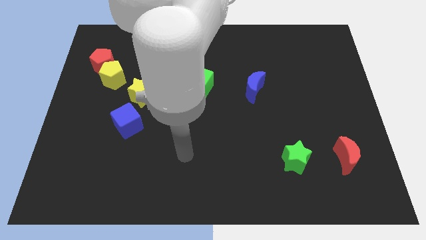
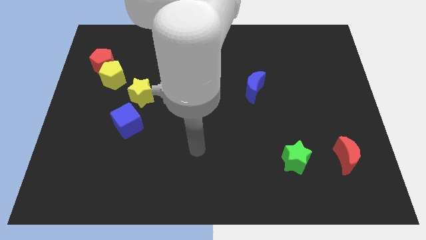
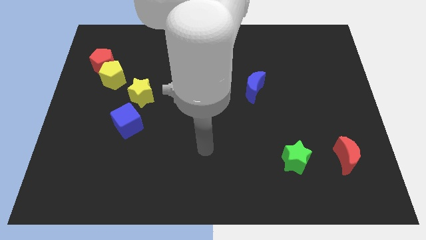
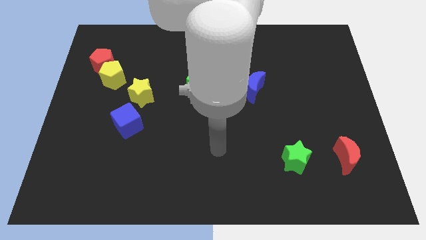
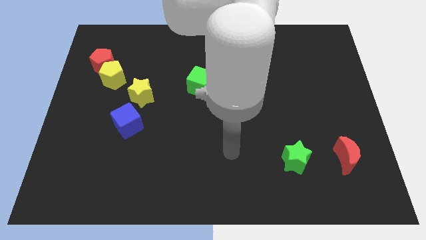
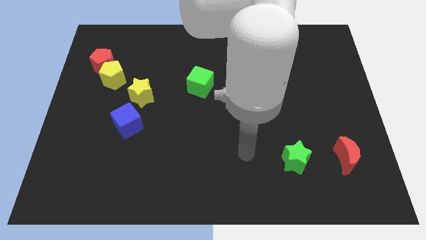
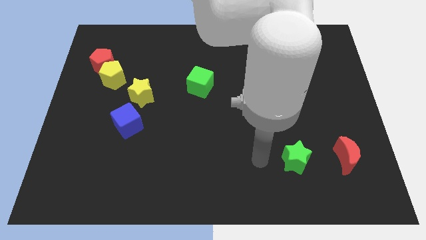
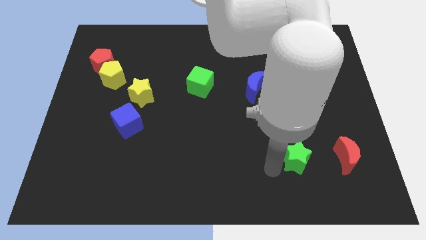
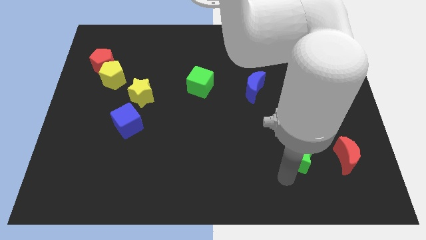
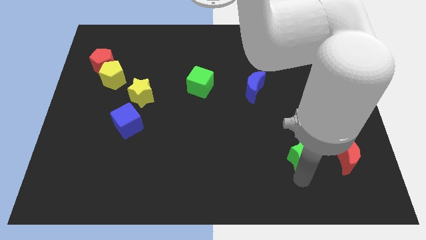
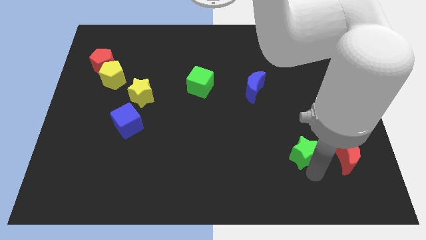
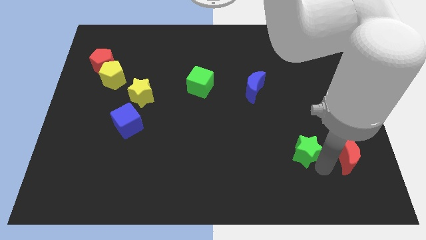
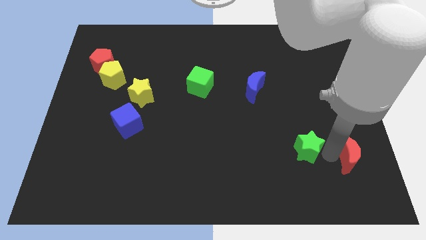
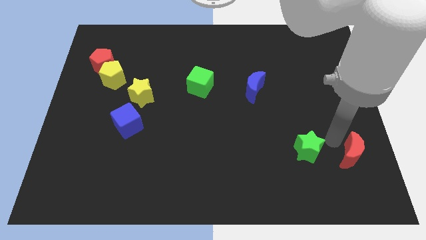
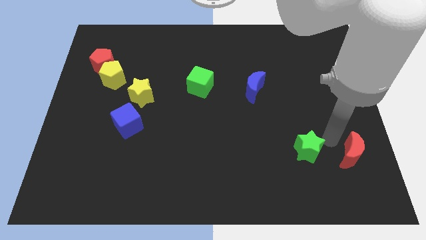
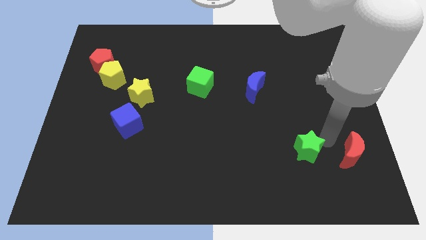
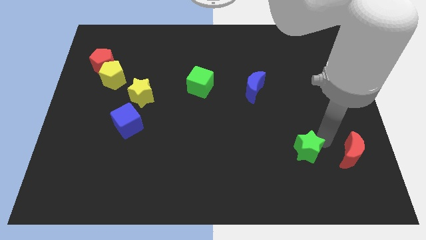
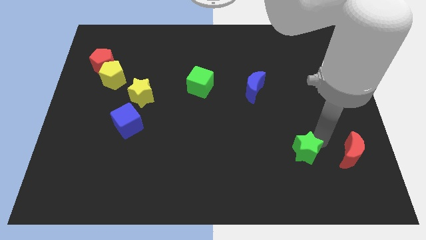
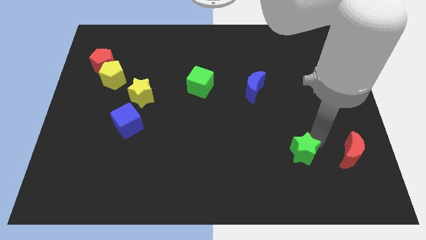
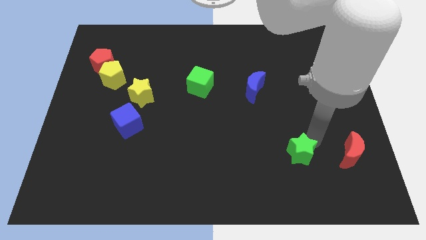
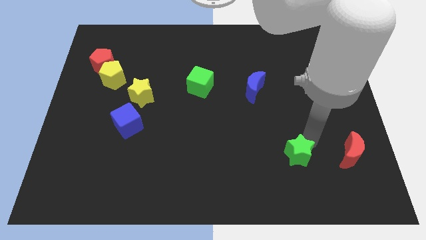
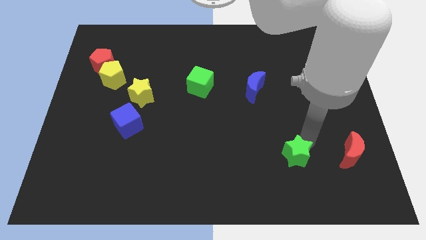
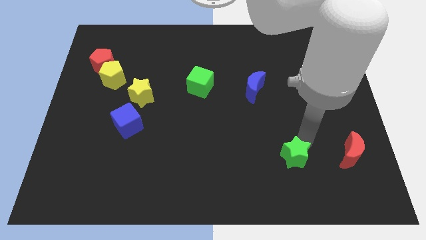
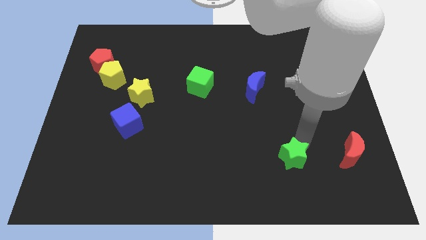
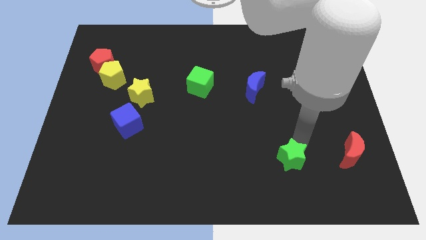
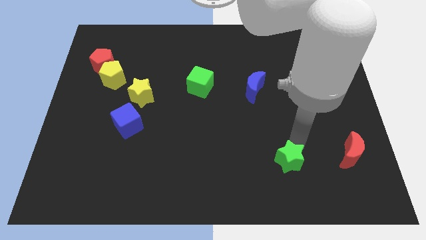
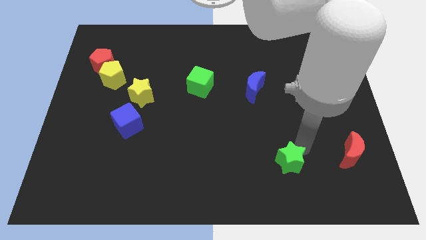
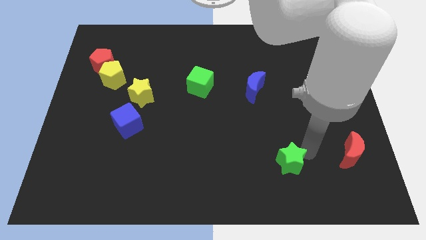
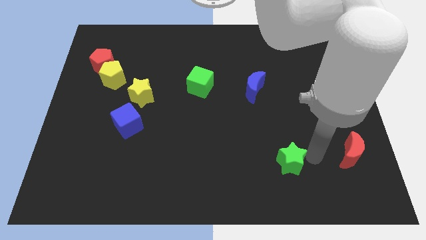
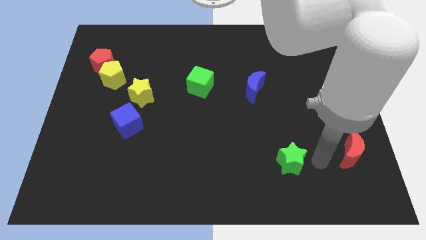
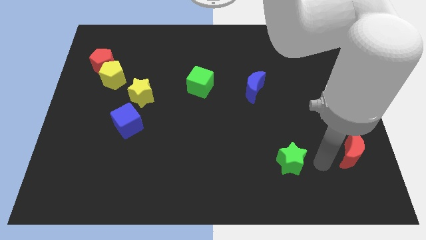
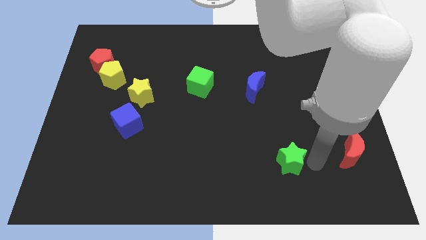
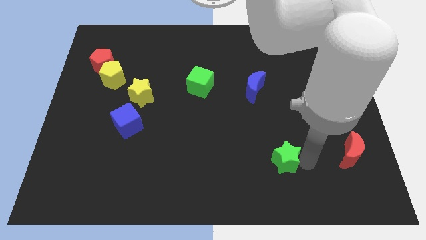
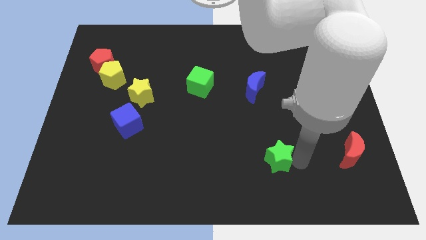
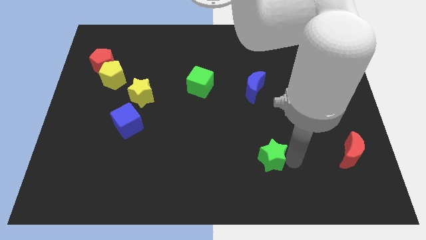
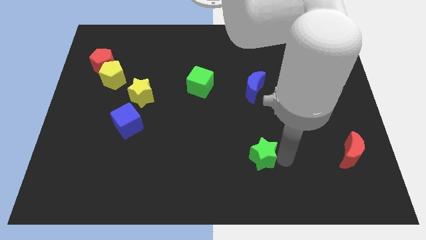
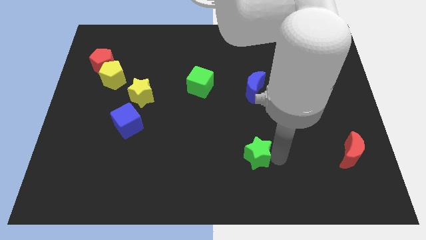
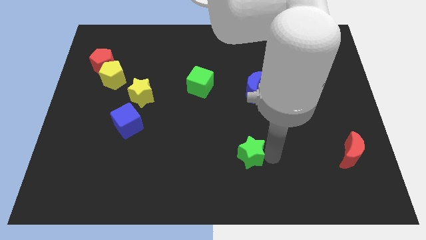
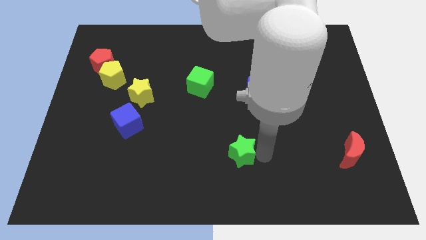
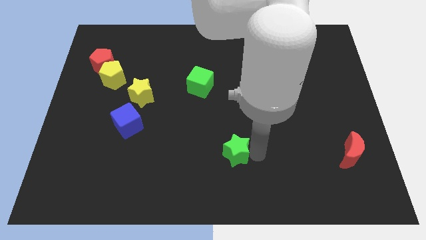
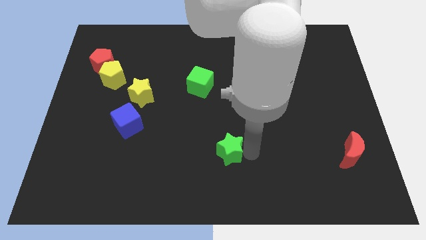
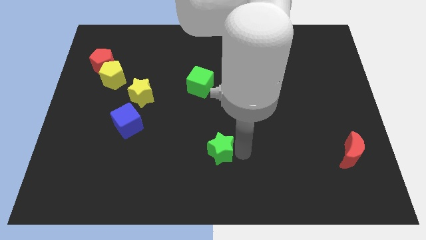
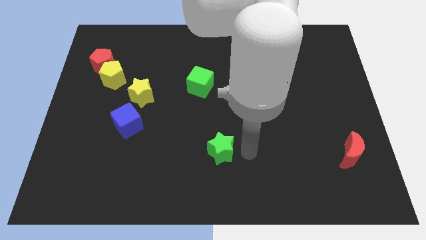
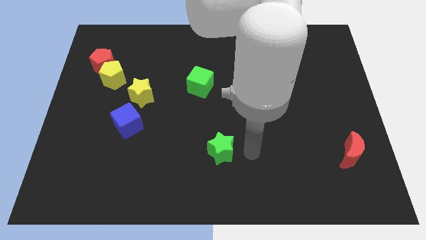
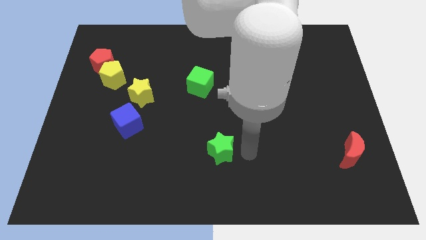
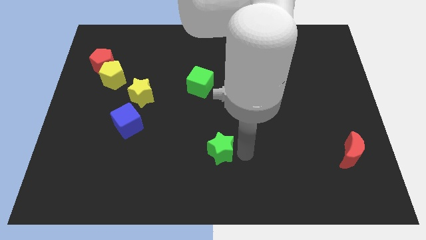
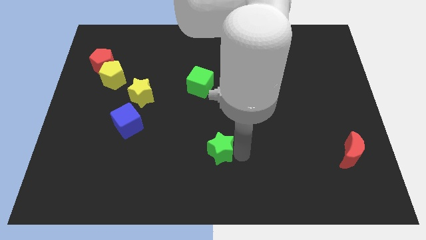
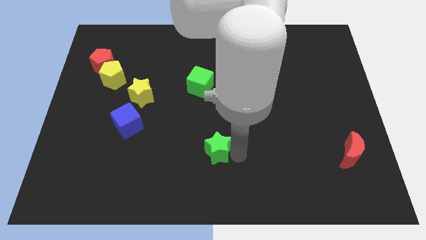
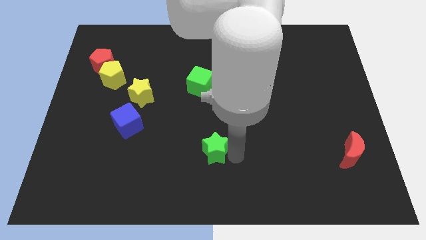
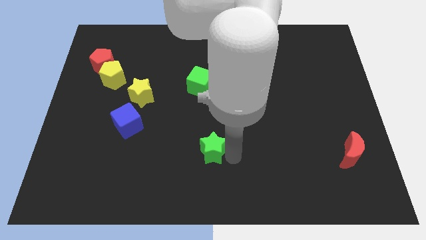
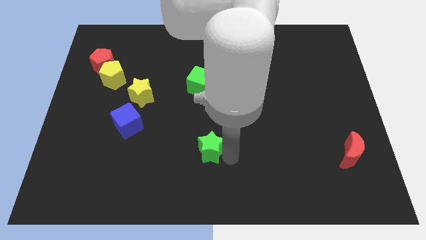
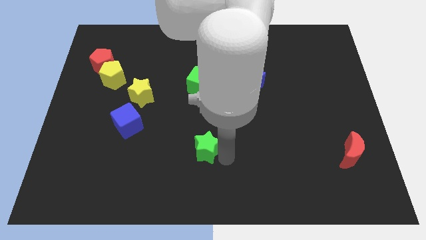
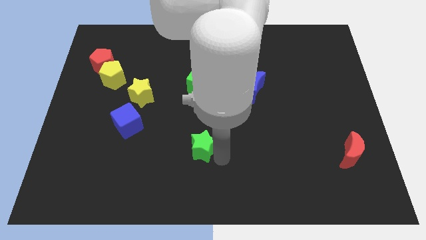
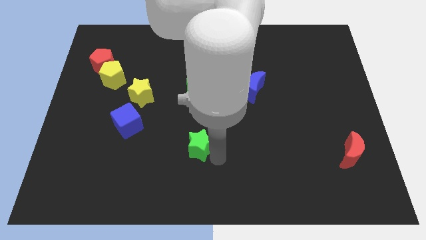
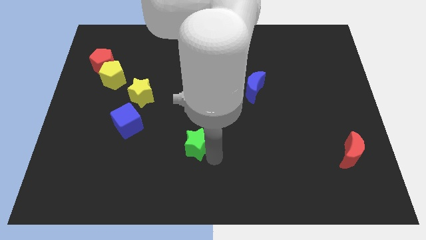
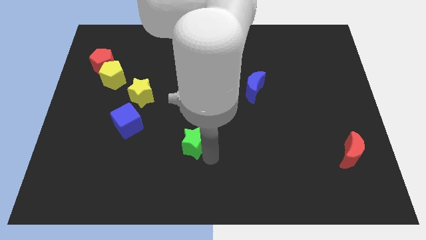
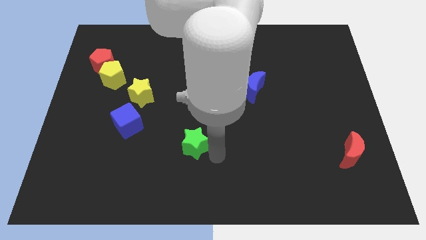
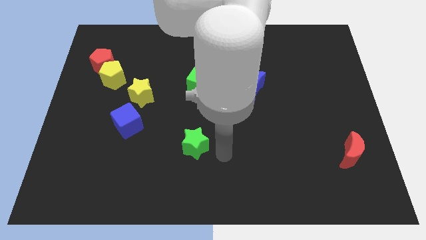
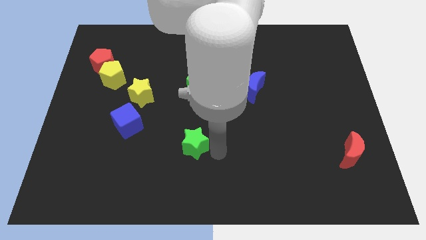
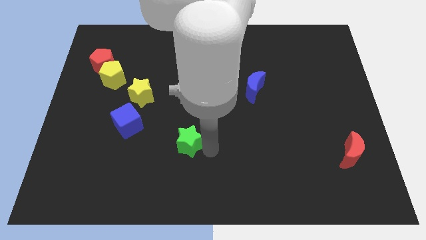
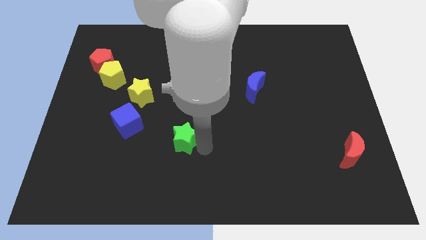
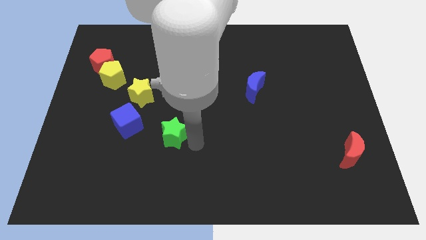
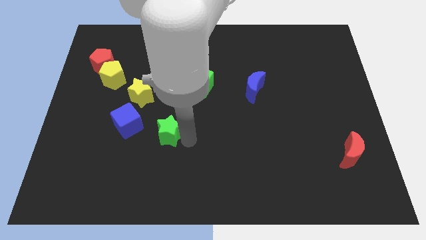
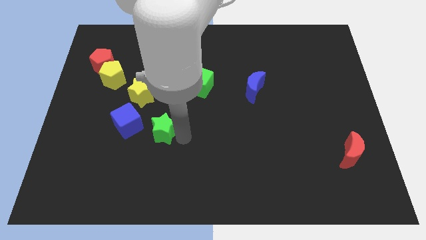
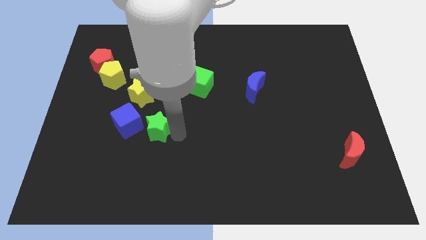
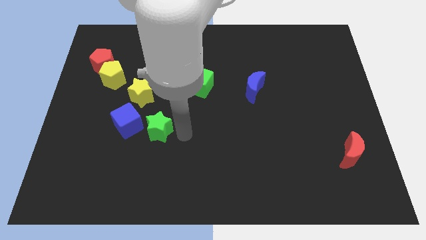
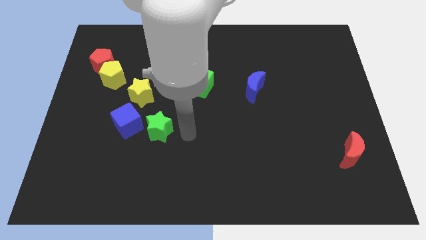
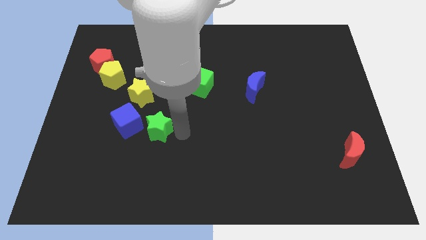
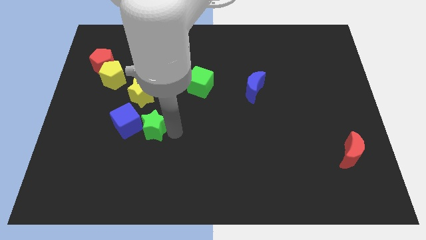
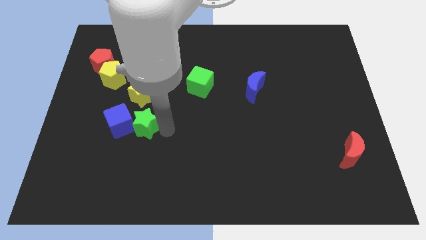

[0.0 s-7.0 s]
push the green star next to the blue cube
